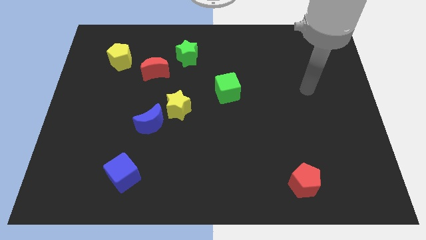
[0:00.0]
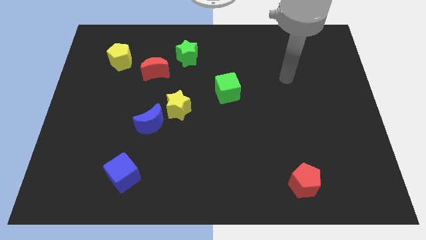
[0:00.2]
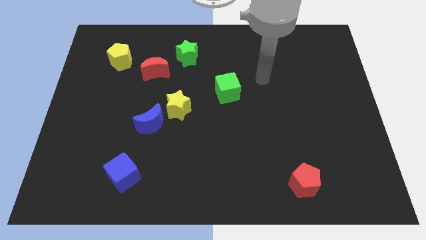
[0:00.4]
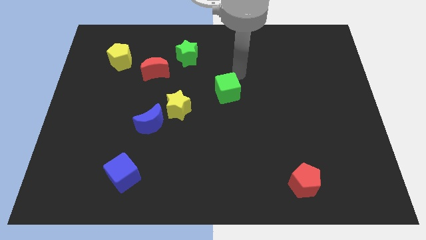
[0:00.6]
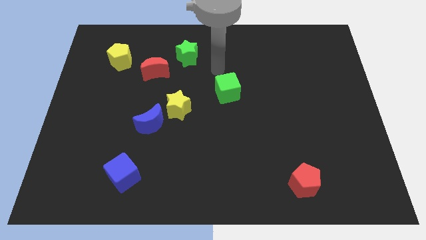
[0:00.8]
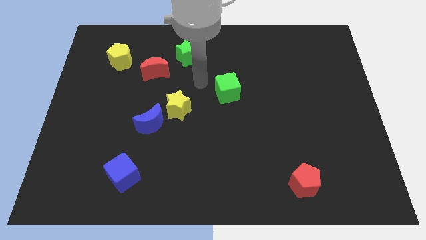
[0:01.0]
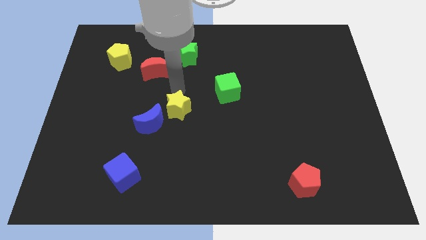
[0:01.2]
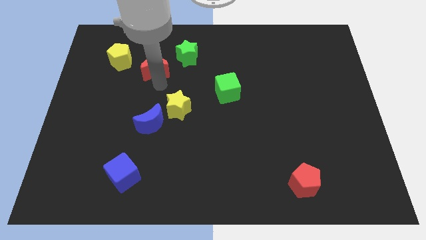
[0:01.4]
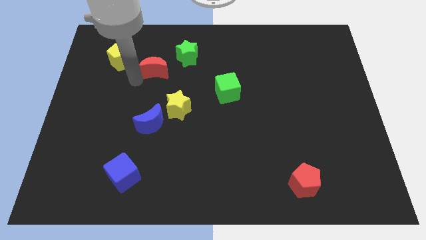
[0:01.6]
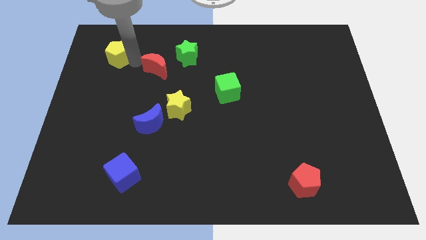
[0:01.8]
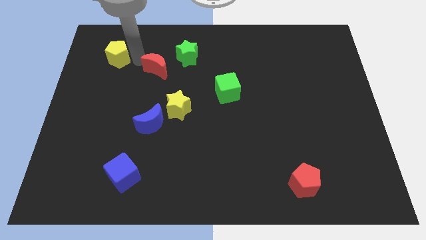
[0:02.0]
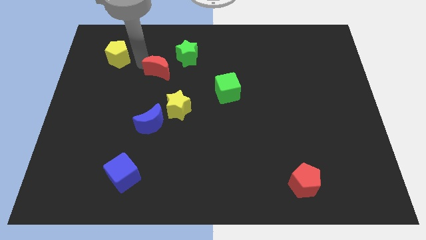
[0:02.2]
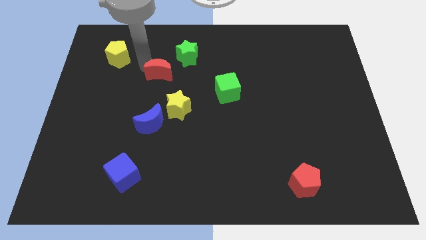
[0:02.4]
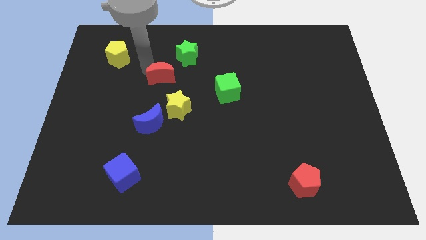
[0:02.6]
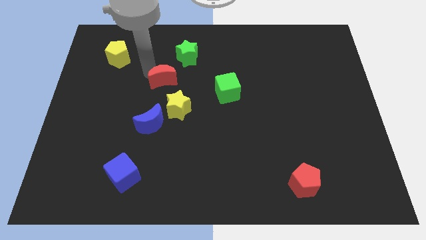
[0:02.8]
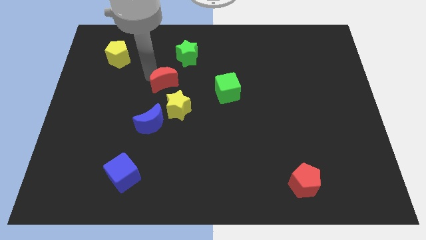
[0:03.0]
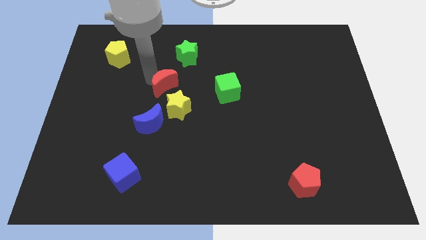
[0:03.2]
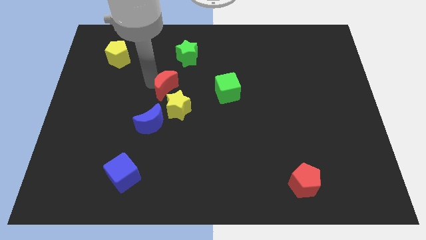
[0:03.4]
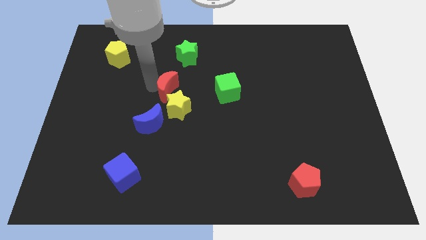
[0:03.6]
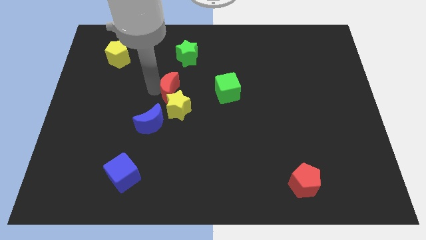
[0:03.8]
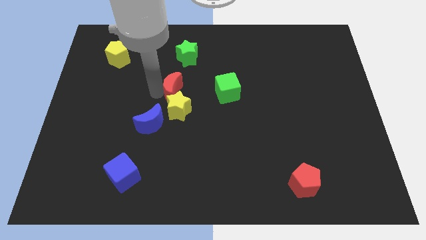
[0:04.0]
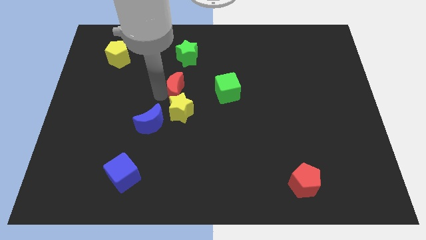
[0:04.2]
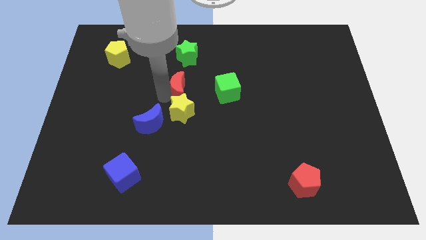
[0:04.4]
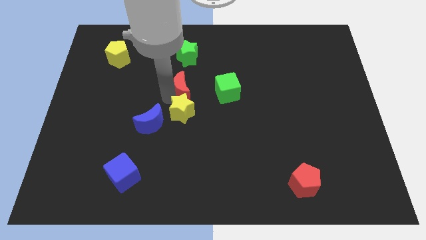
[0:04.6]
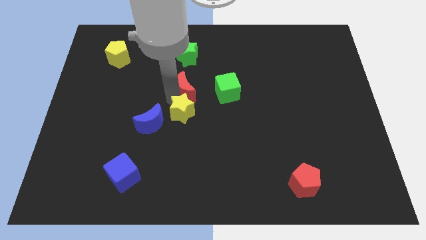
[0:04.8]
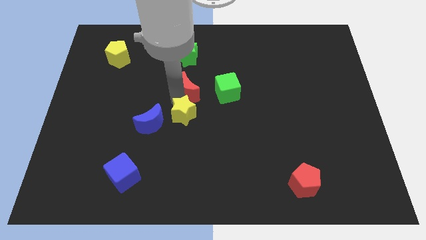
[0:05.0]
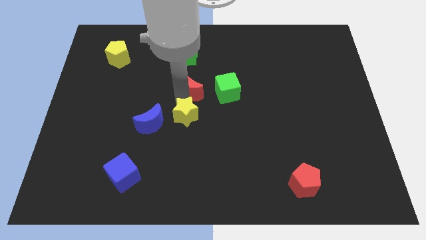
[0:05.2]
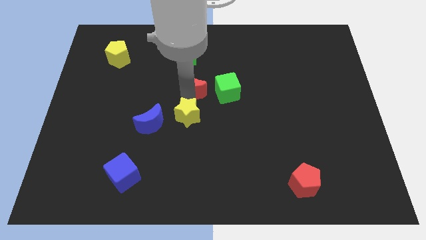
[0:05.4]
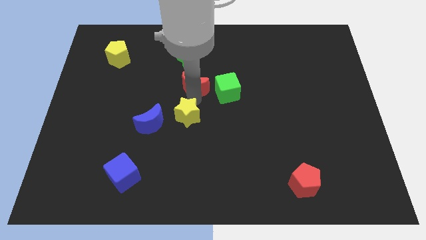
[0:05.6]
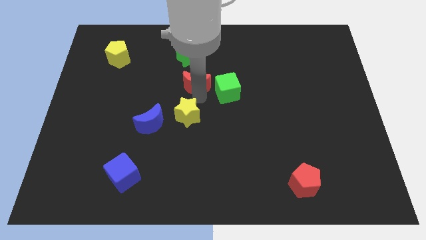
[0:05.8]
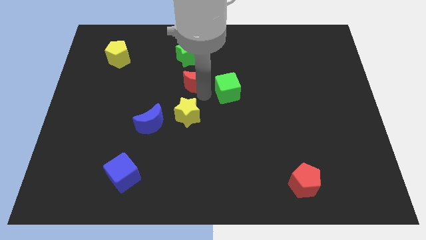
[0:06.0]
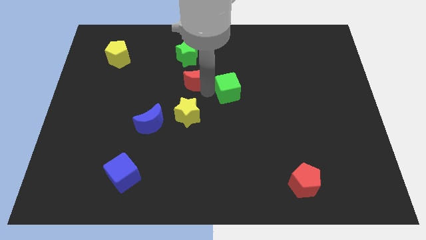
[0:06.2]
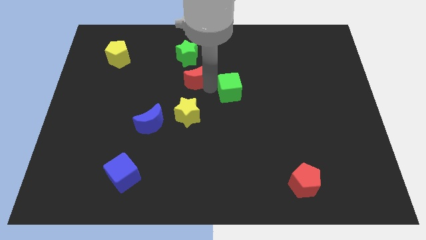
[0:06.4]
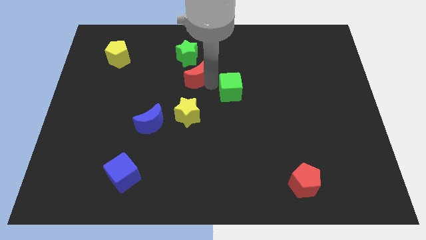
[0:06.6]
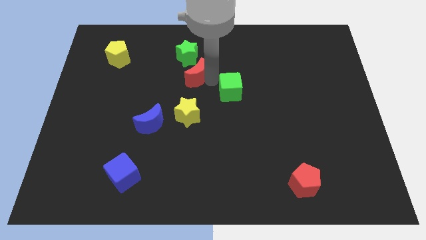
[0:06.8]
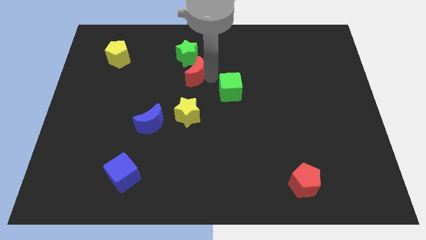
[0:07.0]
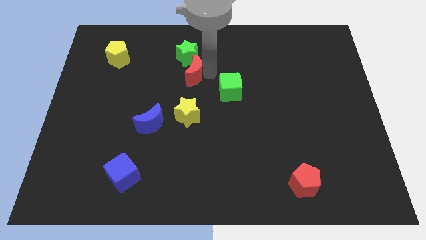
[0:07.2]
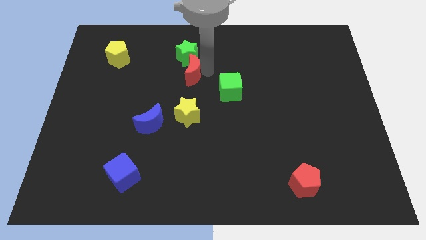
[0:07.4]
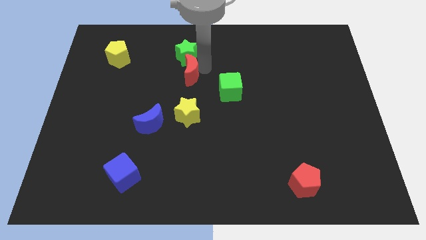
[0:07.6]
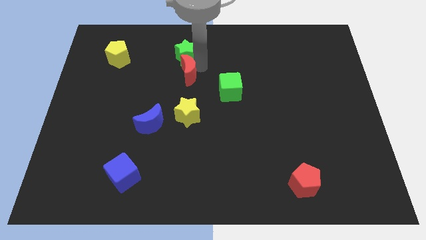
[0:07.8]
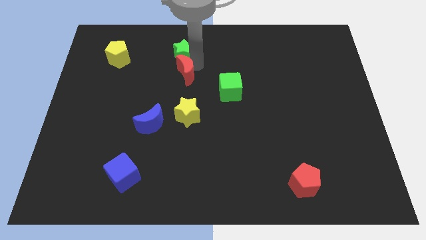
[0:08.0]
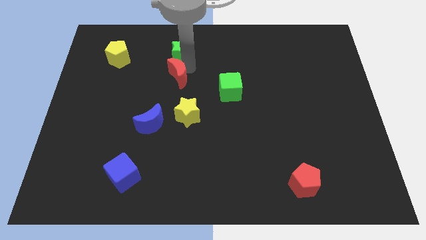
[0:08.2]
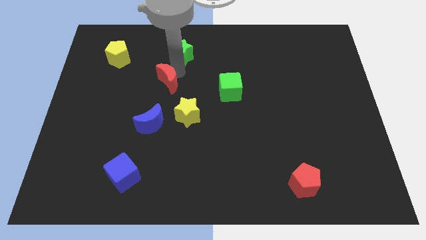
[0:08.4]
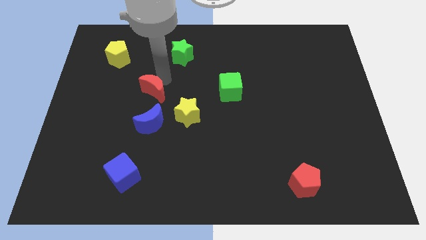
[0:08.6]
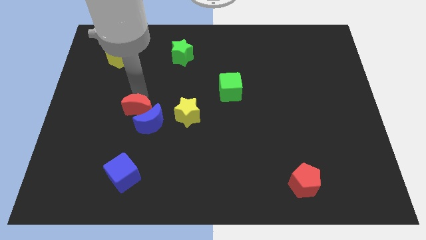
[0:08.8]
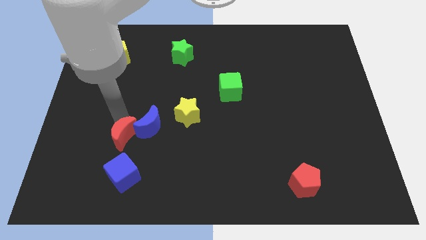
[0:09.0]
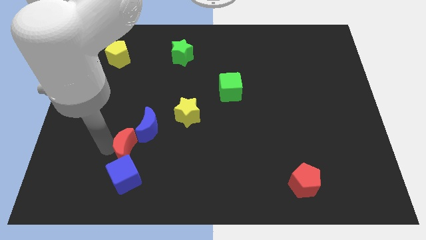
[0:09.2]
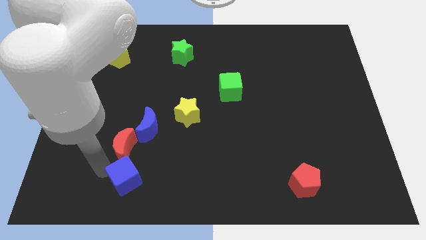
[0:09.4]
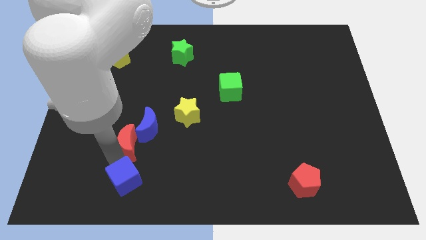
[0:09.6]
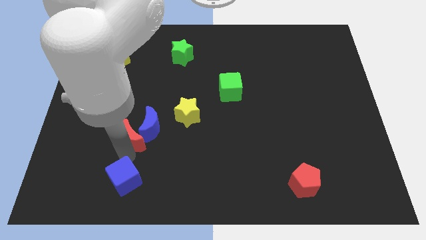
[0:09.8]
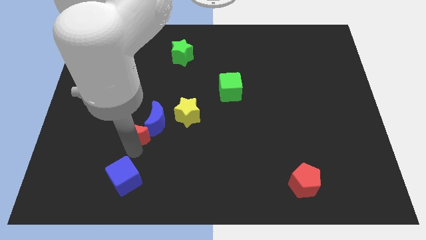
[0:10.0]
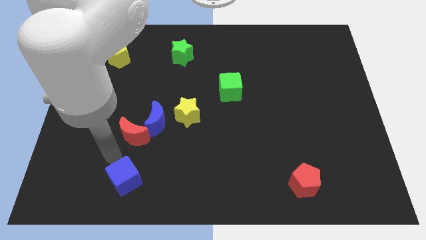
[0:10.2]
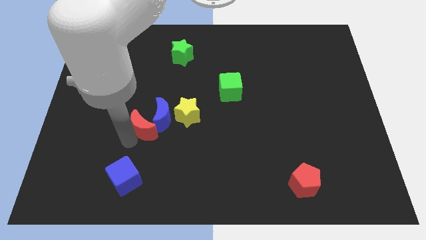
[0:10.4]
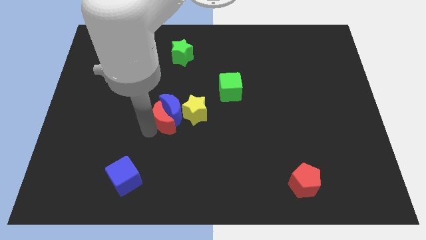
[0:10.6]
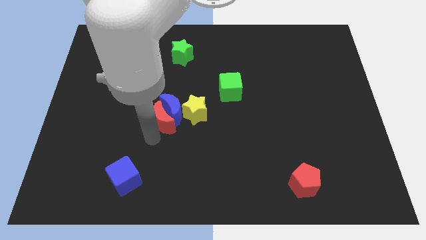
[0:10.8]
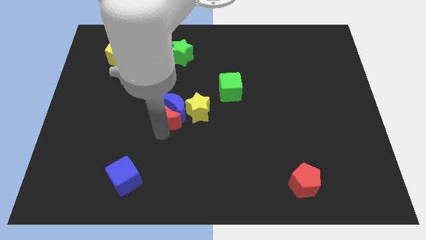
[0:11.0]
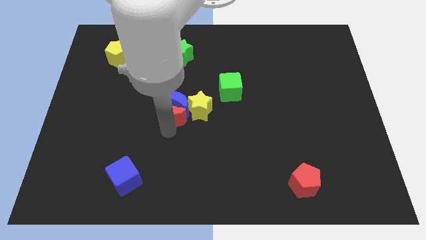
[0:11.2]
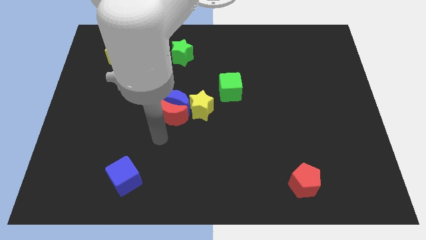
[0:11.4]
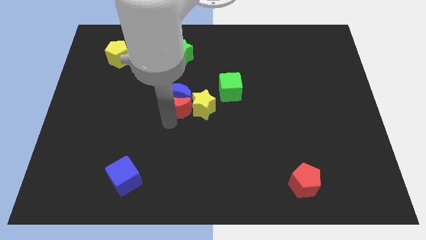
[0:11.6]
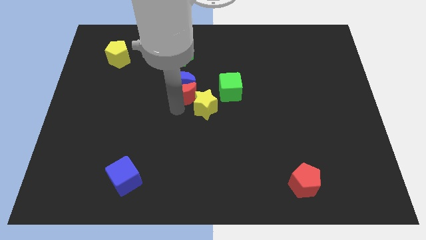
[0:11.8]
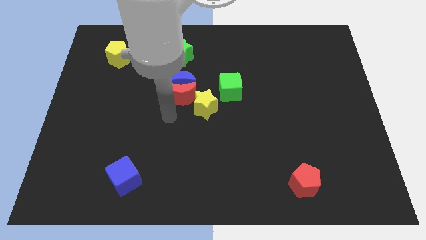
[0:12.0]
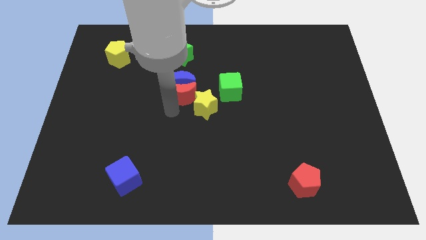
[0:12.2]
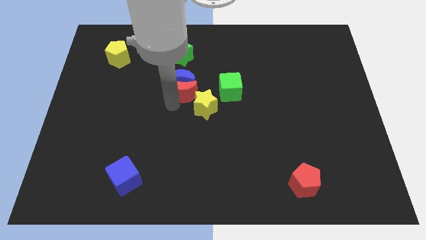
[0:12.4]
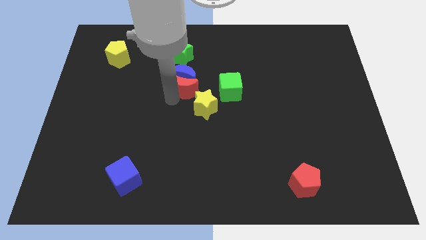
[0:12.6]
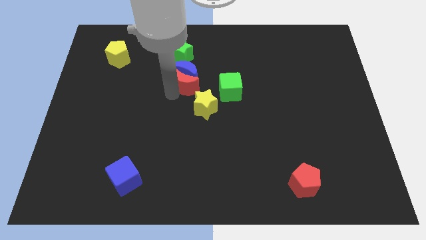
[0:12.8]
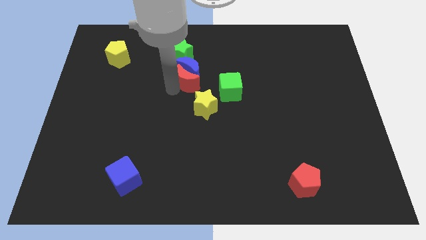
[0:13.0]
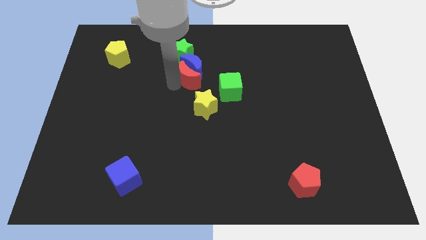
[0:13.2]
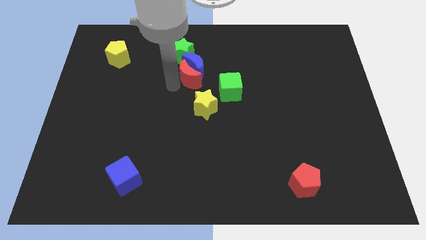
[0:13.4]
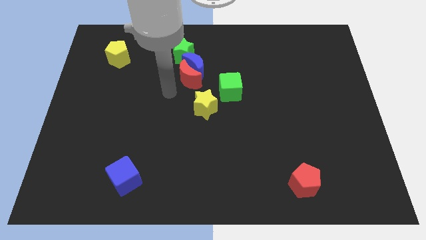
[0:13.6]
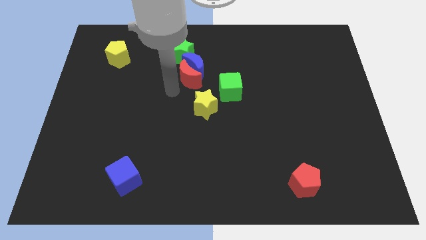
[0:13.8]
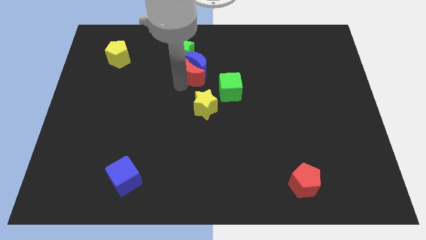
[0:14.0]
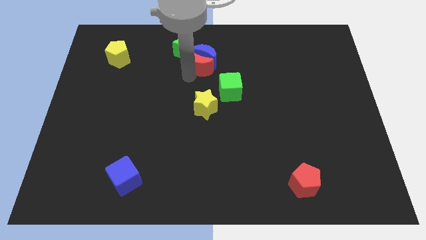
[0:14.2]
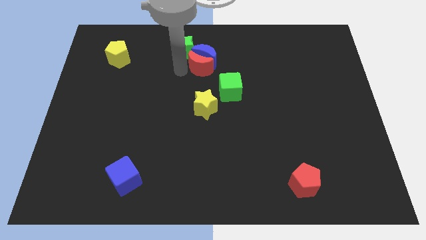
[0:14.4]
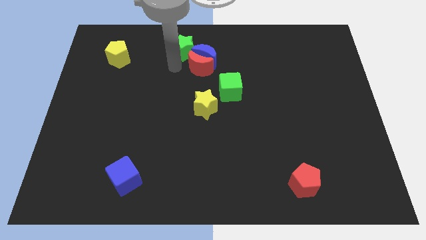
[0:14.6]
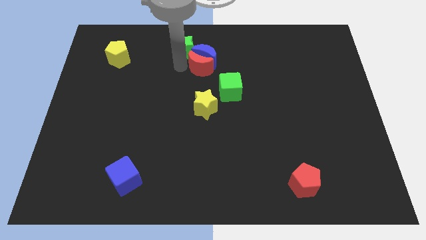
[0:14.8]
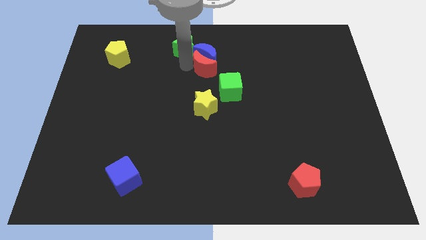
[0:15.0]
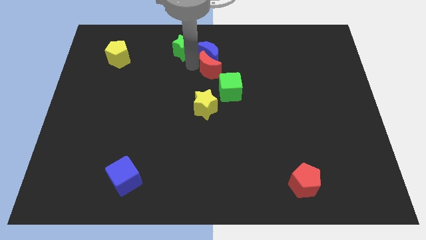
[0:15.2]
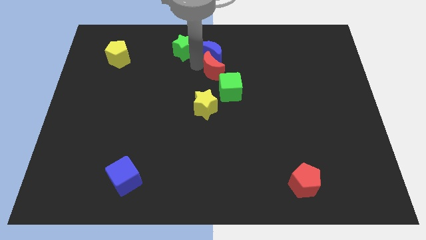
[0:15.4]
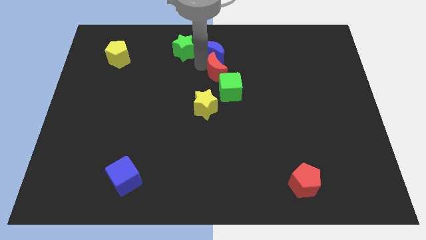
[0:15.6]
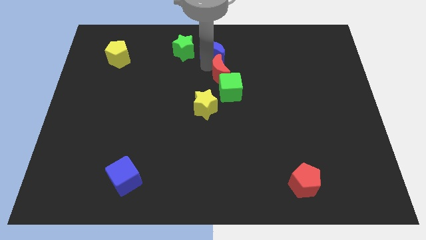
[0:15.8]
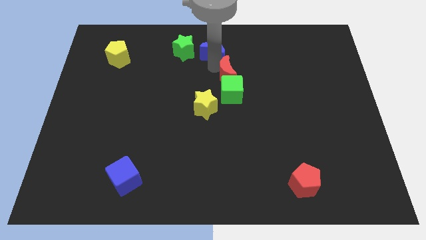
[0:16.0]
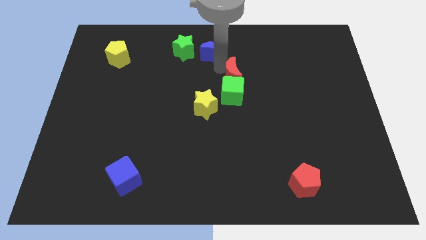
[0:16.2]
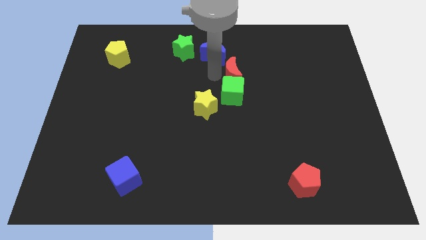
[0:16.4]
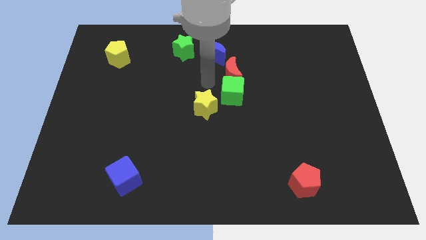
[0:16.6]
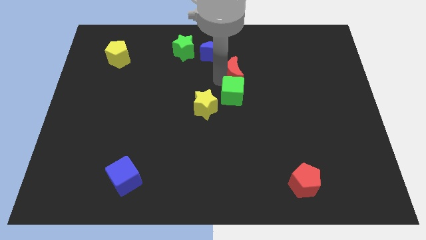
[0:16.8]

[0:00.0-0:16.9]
move the red moon to the right
